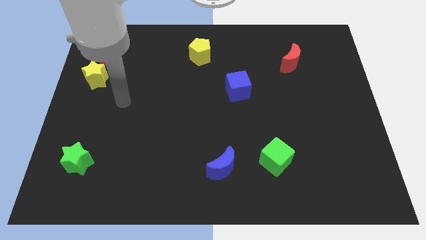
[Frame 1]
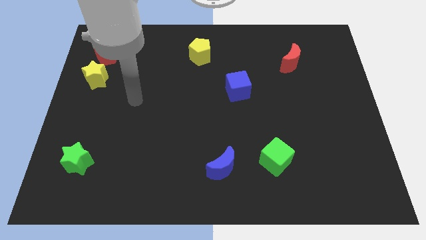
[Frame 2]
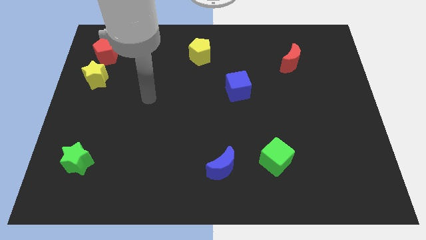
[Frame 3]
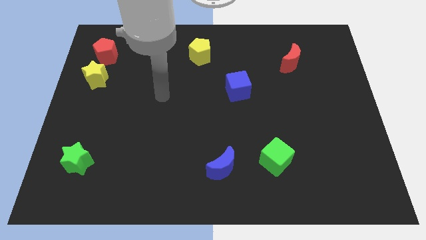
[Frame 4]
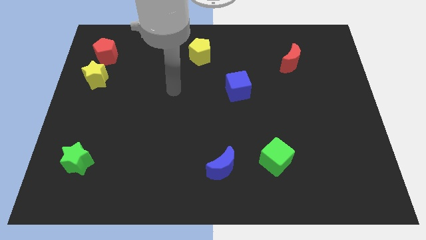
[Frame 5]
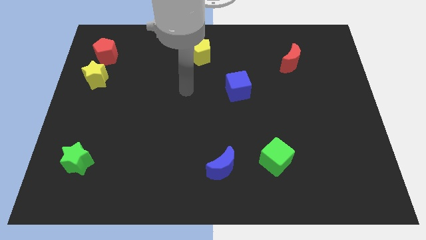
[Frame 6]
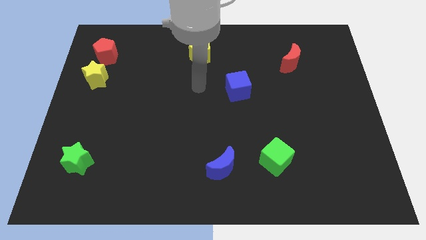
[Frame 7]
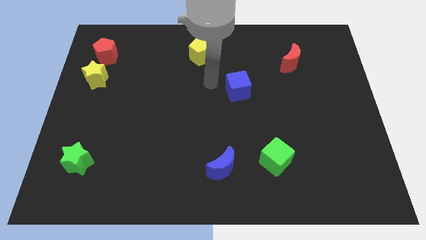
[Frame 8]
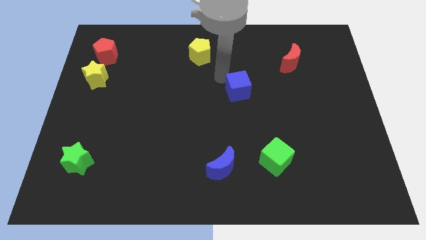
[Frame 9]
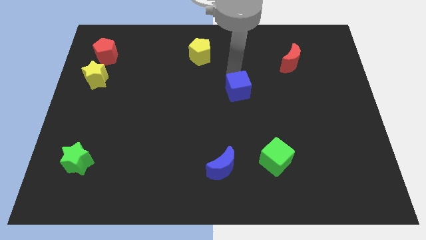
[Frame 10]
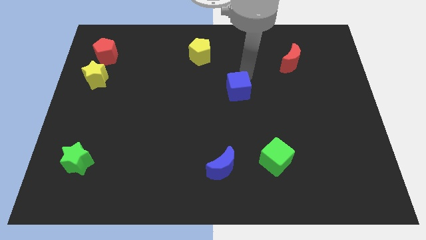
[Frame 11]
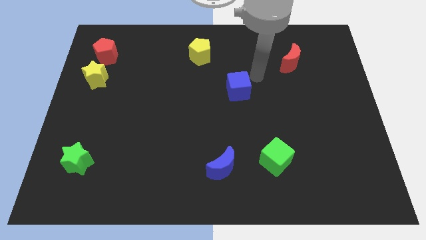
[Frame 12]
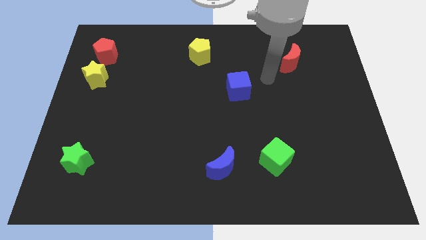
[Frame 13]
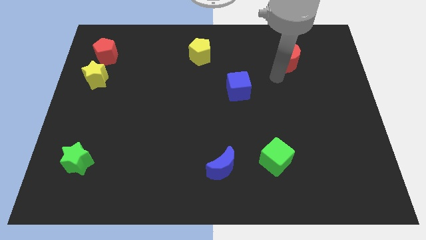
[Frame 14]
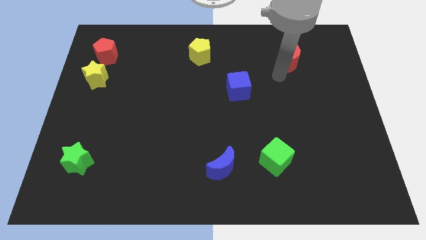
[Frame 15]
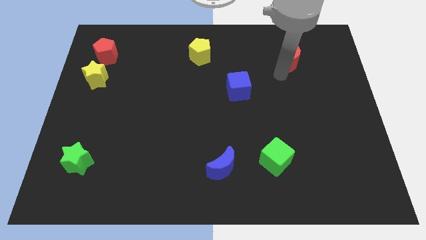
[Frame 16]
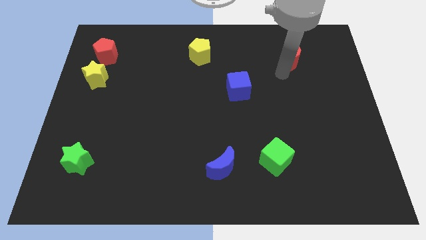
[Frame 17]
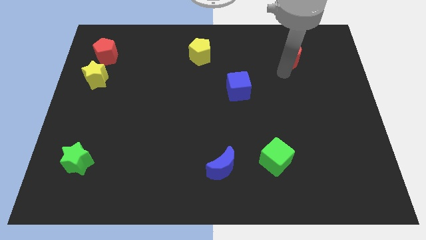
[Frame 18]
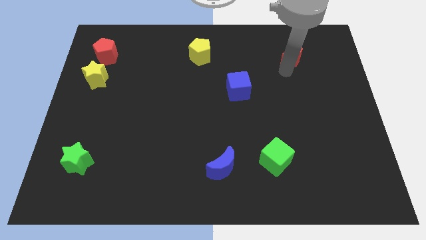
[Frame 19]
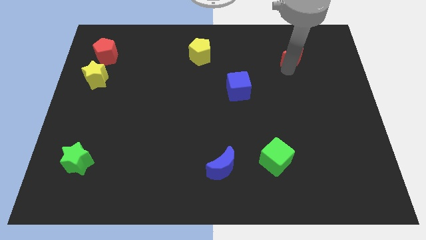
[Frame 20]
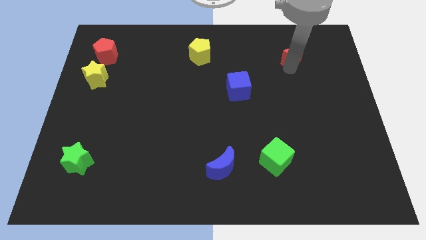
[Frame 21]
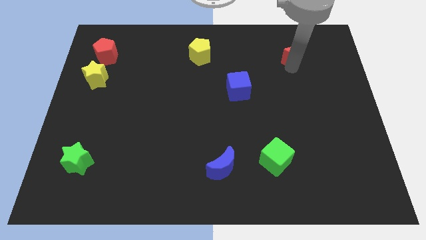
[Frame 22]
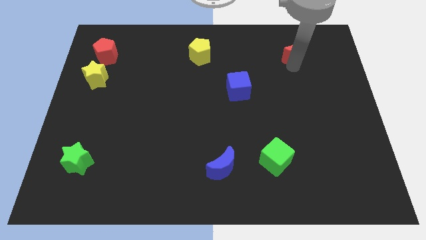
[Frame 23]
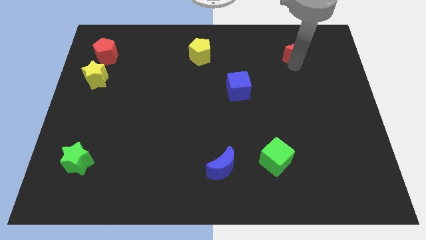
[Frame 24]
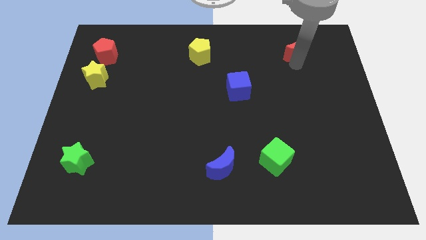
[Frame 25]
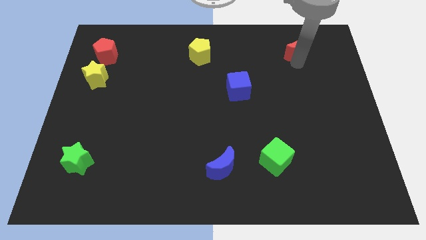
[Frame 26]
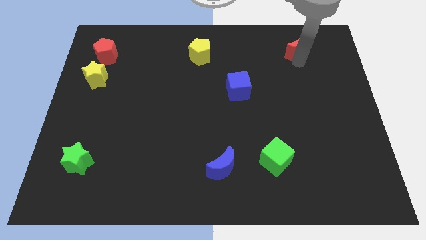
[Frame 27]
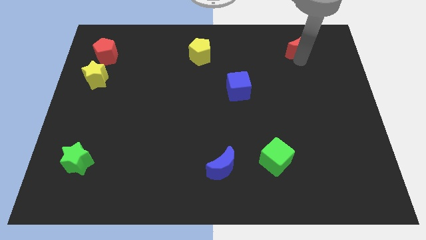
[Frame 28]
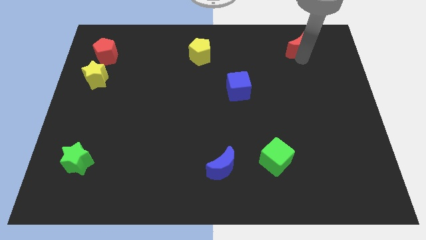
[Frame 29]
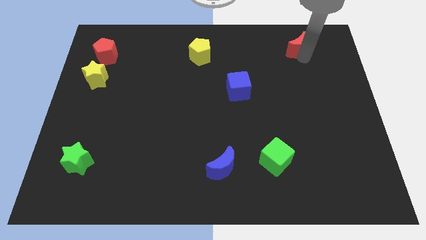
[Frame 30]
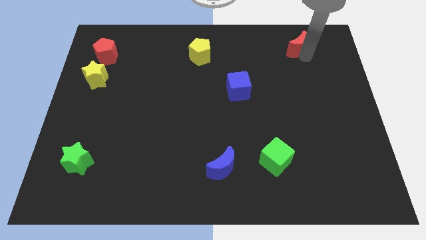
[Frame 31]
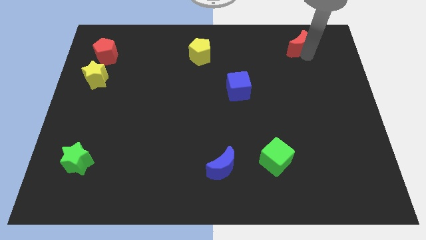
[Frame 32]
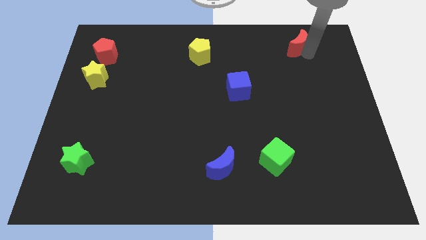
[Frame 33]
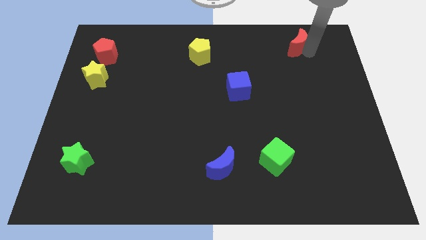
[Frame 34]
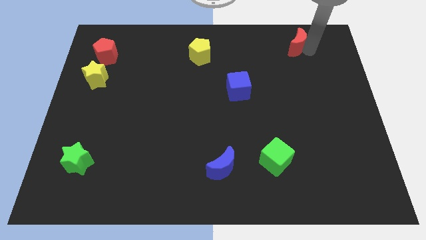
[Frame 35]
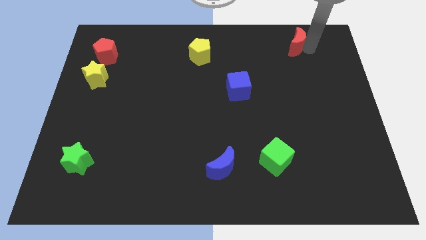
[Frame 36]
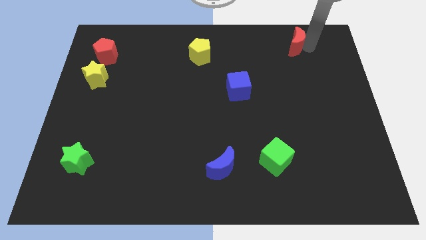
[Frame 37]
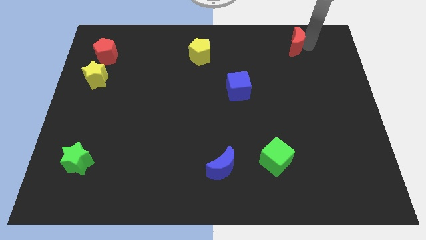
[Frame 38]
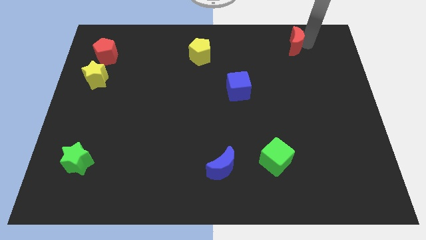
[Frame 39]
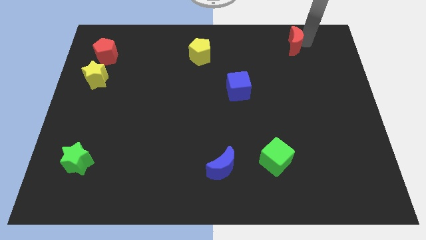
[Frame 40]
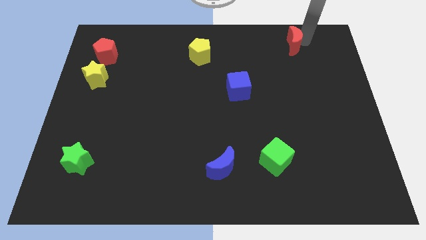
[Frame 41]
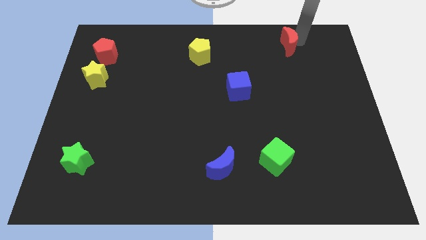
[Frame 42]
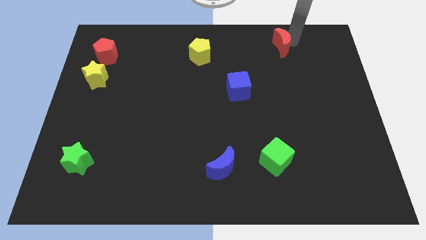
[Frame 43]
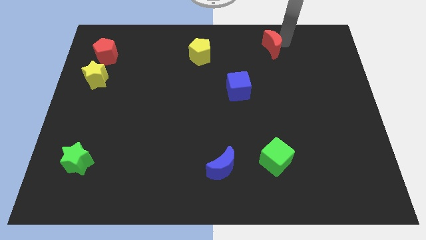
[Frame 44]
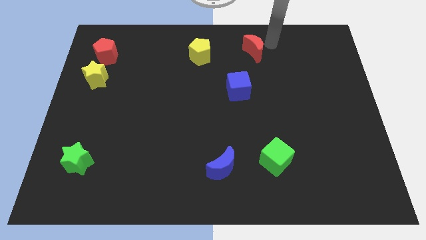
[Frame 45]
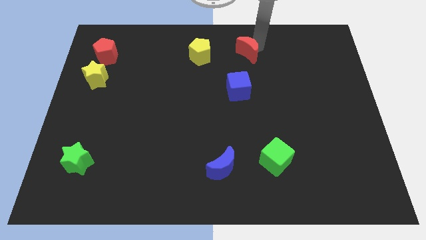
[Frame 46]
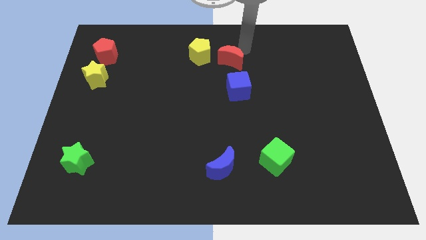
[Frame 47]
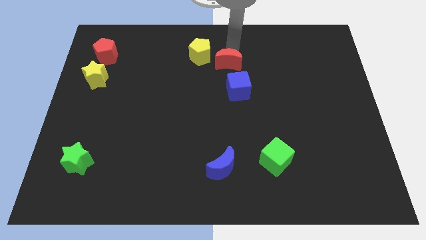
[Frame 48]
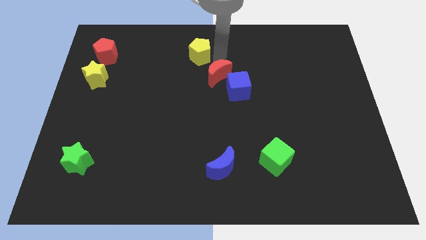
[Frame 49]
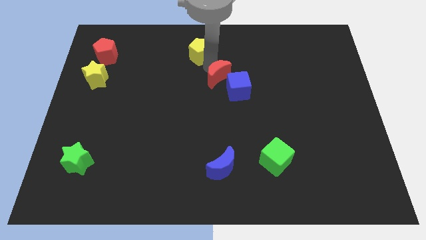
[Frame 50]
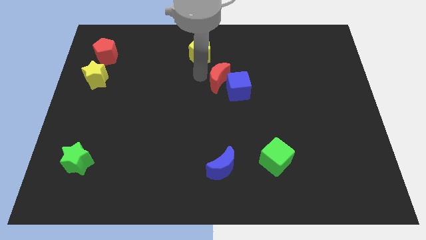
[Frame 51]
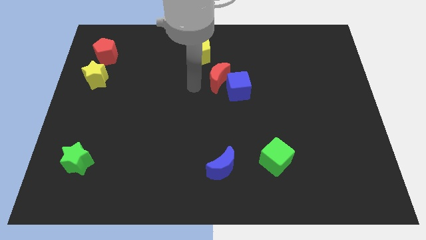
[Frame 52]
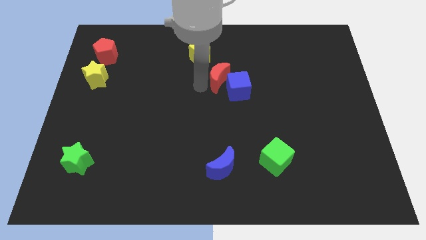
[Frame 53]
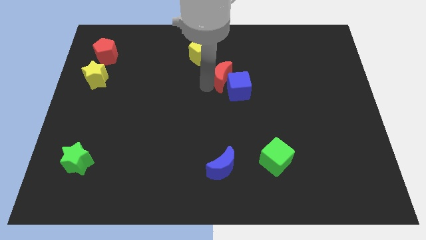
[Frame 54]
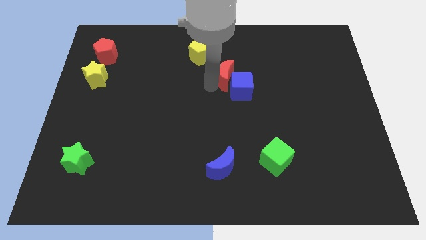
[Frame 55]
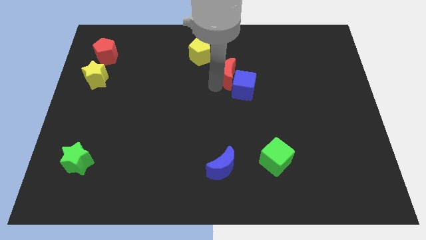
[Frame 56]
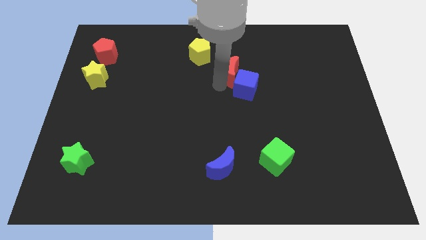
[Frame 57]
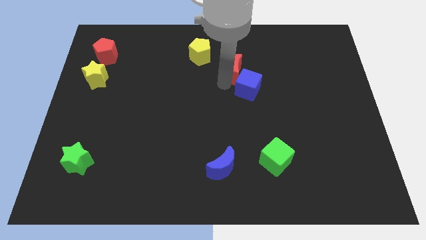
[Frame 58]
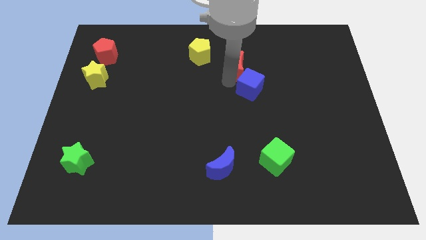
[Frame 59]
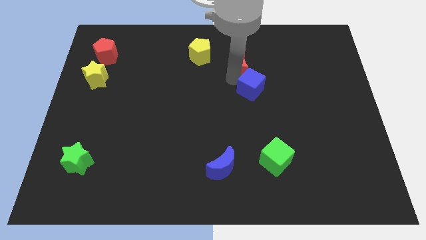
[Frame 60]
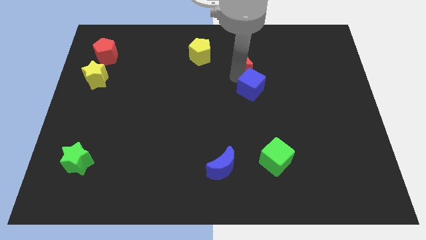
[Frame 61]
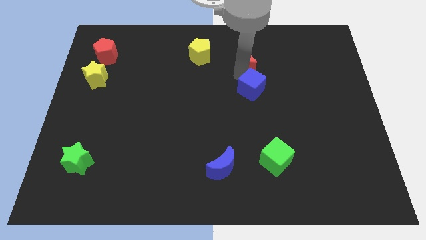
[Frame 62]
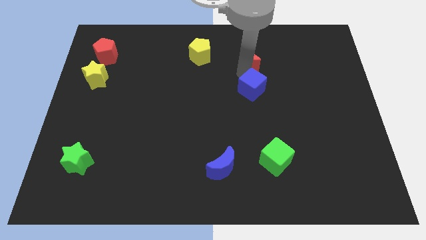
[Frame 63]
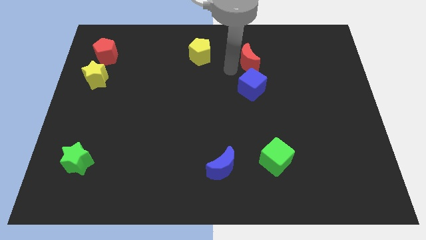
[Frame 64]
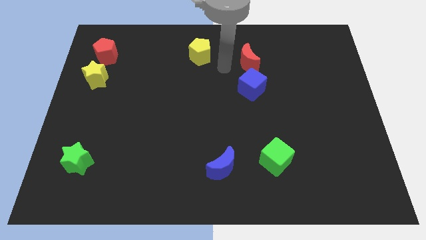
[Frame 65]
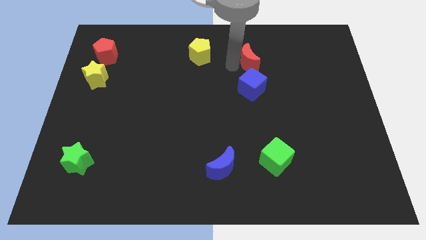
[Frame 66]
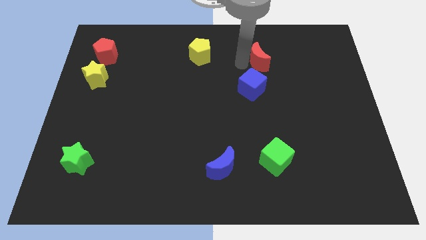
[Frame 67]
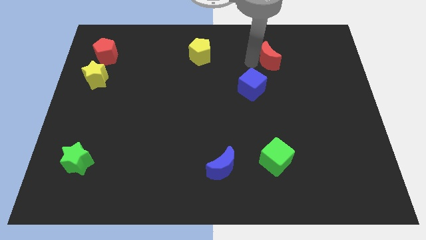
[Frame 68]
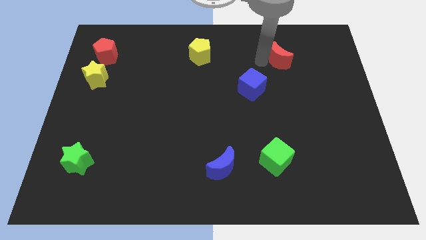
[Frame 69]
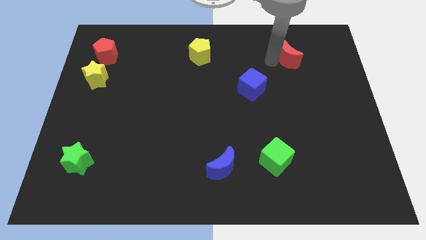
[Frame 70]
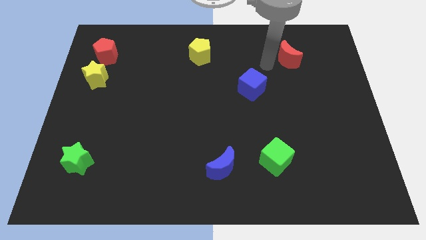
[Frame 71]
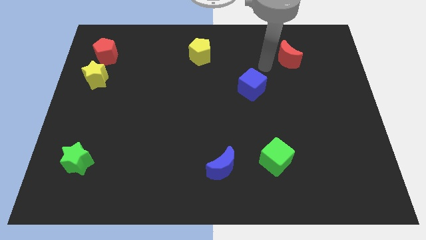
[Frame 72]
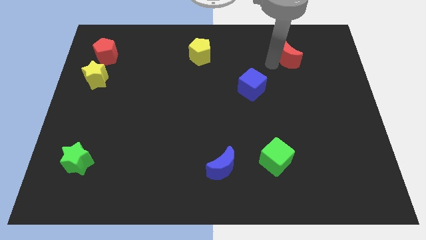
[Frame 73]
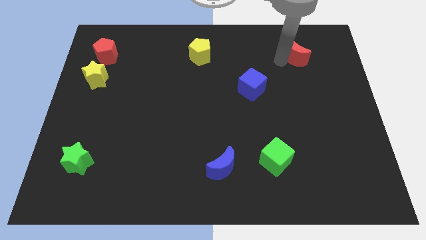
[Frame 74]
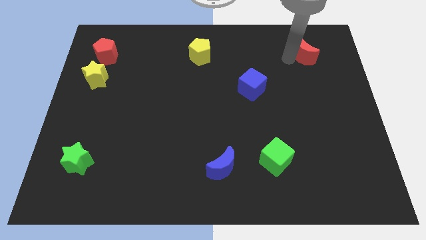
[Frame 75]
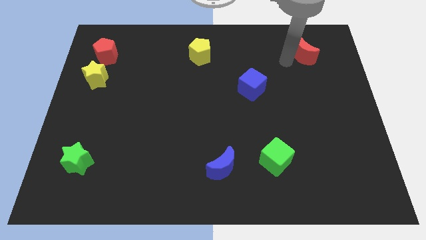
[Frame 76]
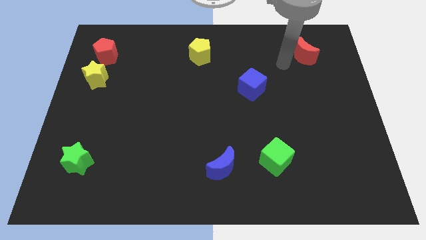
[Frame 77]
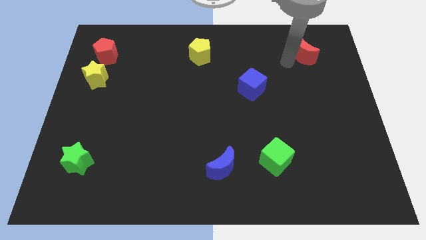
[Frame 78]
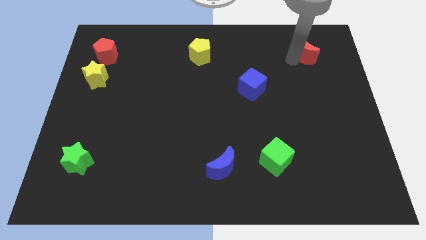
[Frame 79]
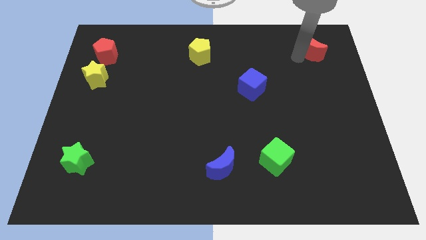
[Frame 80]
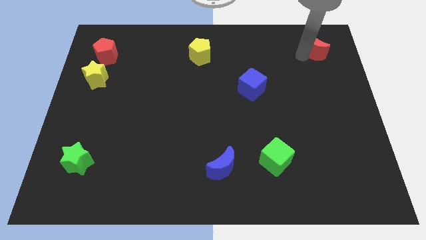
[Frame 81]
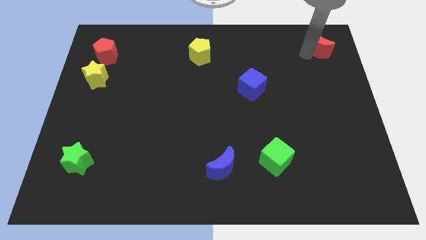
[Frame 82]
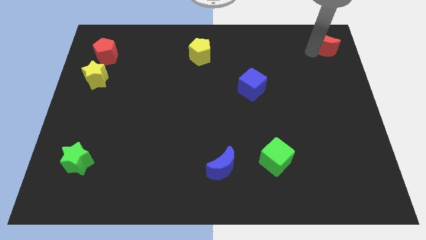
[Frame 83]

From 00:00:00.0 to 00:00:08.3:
slide the red moon to the top right
